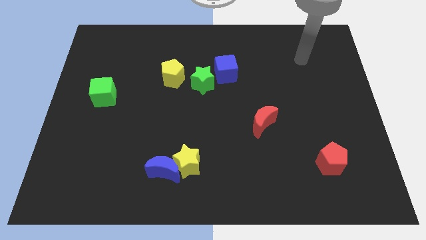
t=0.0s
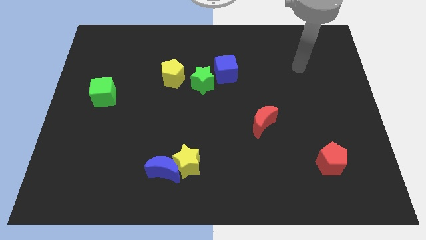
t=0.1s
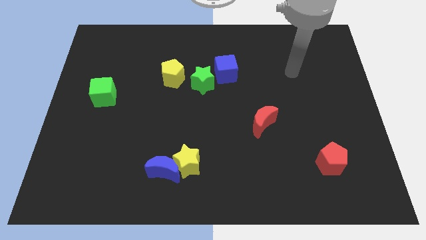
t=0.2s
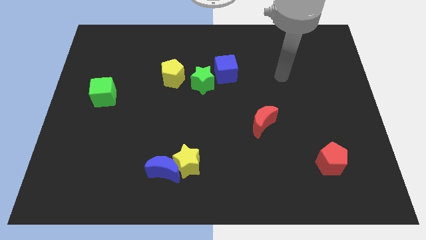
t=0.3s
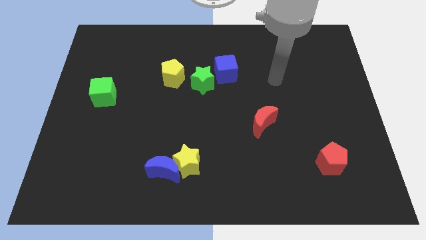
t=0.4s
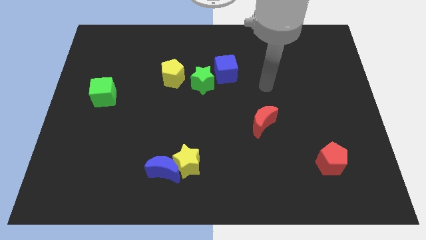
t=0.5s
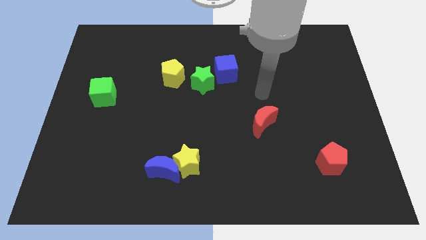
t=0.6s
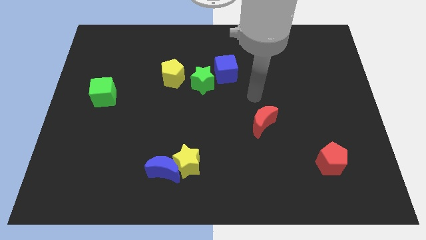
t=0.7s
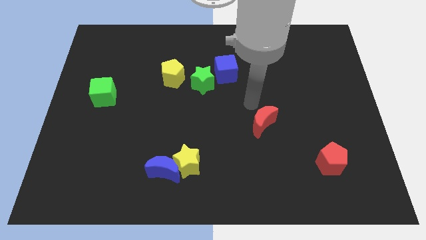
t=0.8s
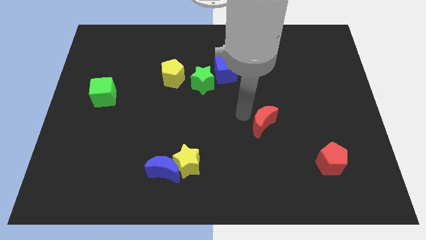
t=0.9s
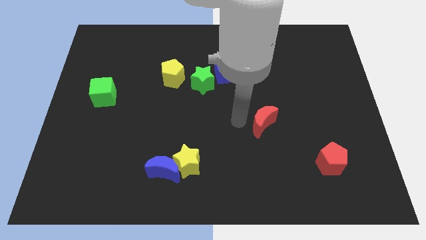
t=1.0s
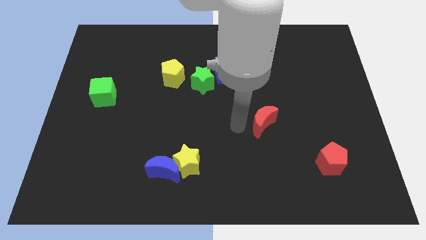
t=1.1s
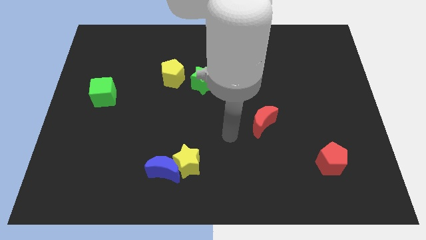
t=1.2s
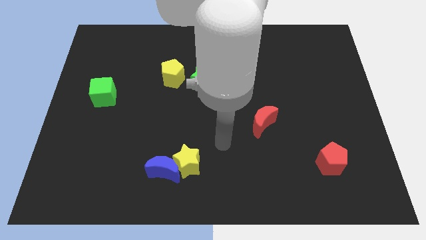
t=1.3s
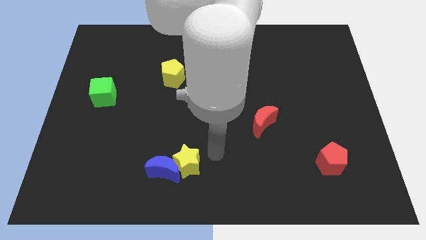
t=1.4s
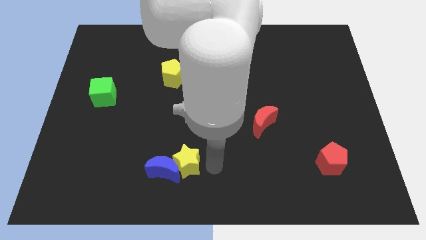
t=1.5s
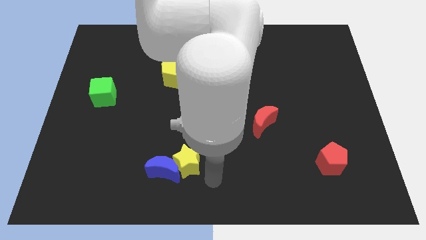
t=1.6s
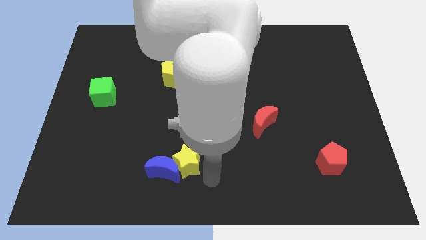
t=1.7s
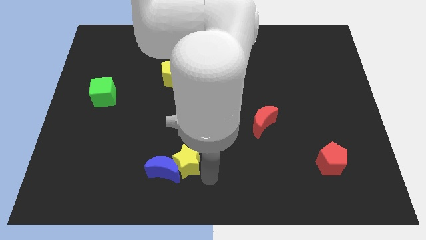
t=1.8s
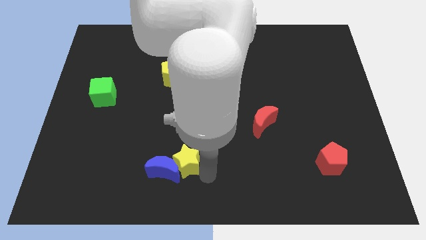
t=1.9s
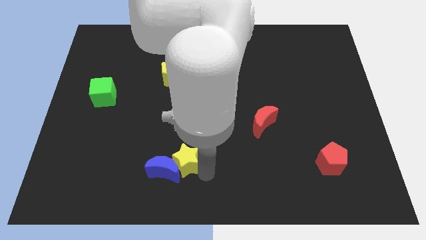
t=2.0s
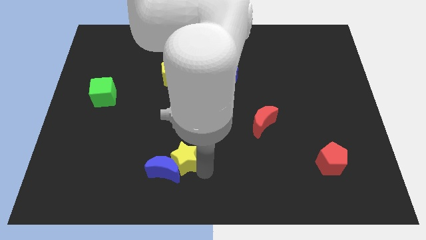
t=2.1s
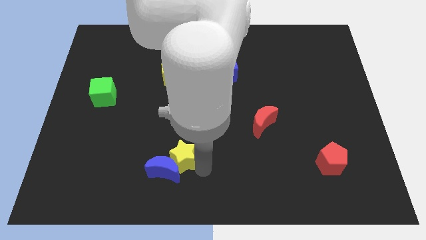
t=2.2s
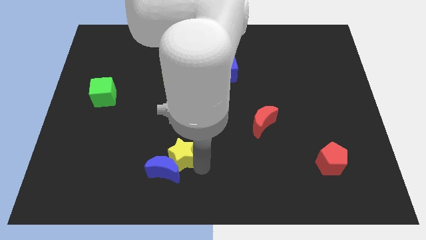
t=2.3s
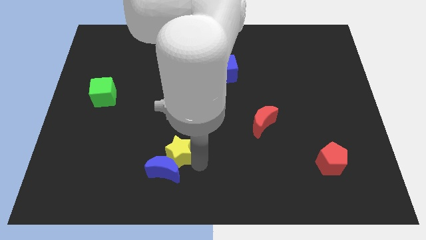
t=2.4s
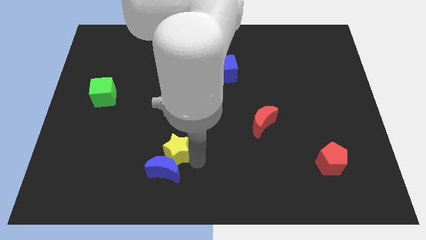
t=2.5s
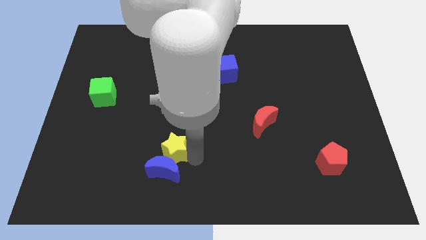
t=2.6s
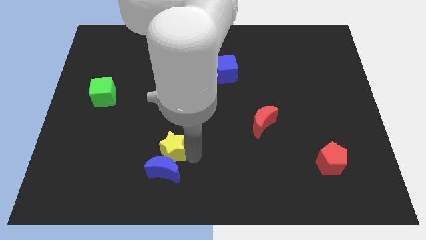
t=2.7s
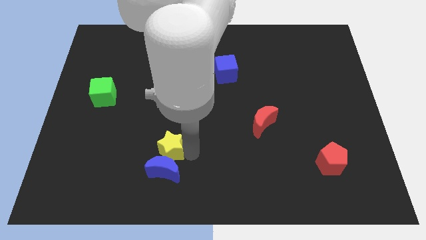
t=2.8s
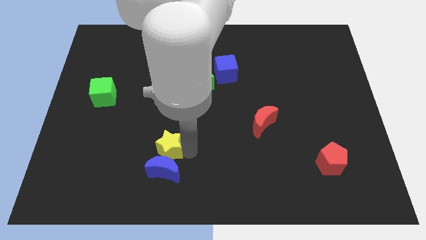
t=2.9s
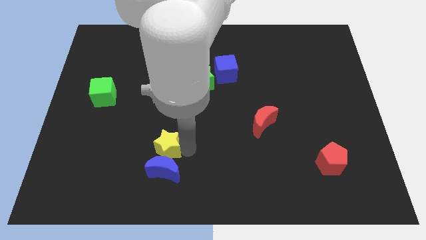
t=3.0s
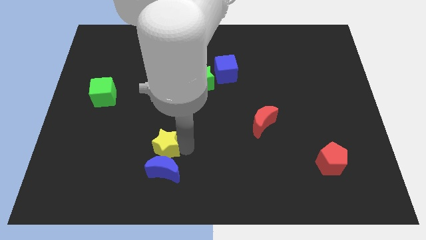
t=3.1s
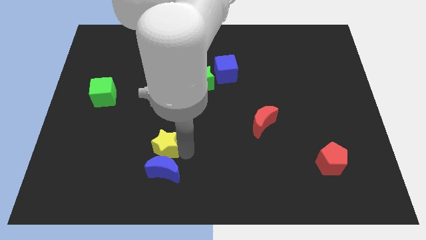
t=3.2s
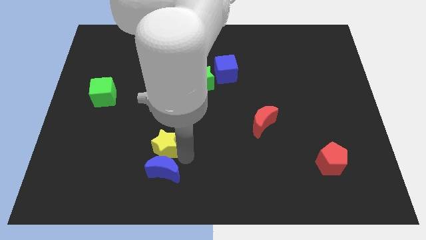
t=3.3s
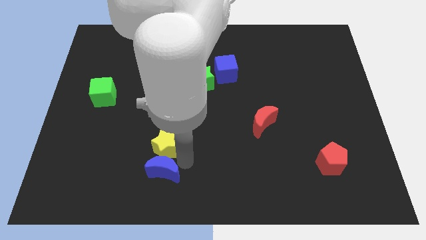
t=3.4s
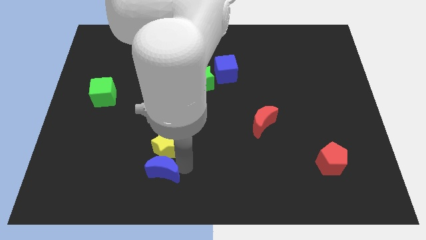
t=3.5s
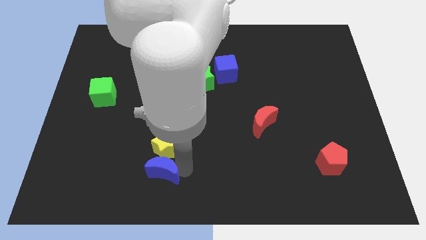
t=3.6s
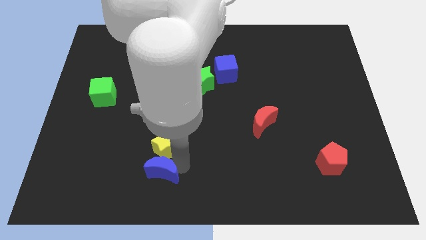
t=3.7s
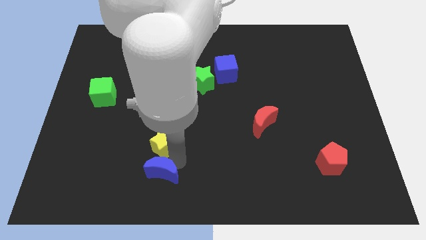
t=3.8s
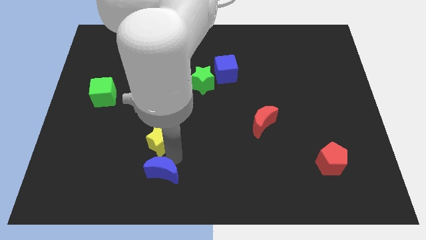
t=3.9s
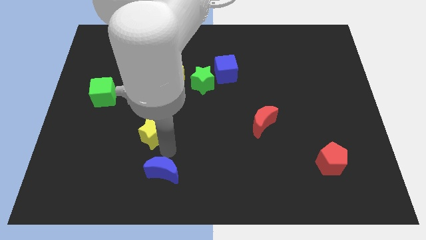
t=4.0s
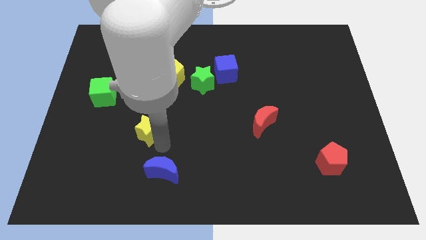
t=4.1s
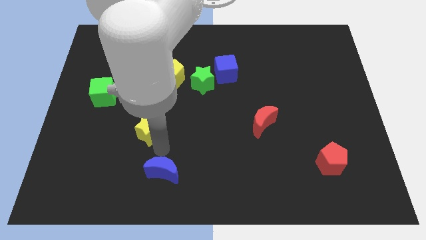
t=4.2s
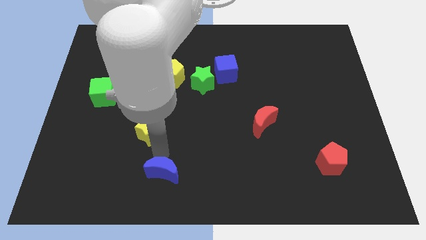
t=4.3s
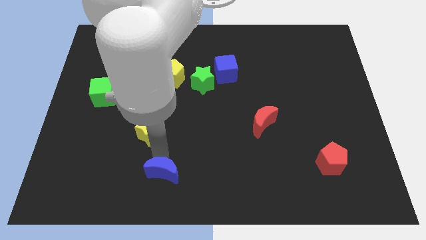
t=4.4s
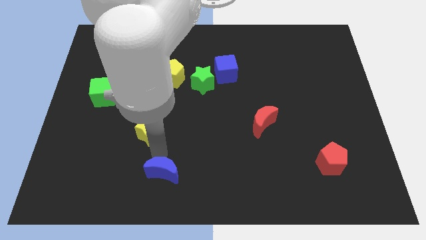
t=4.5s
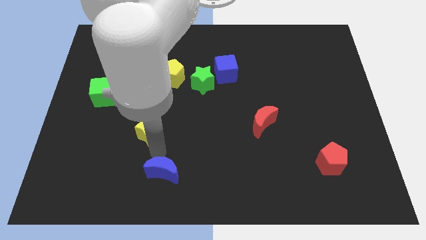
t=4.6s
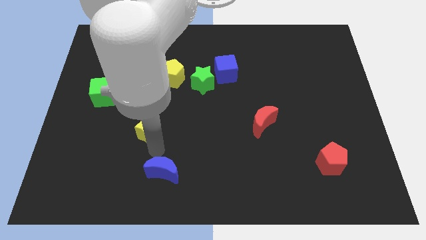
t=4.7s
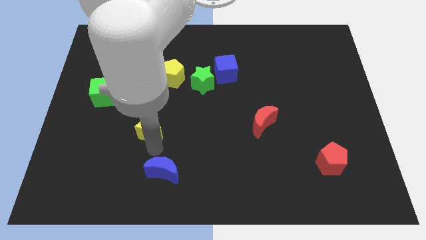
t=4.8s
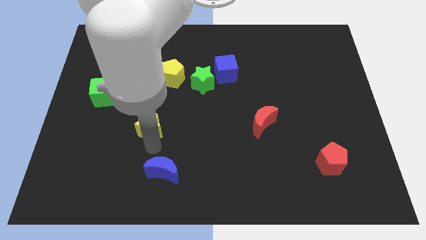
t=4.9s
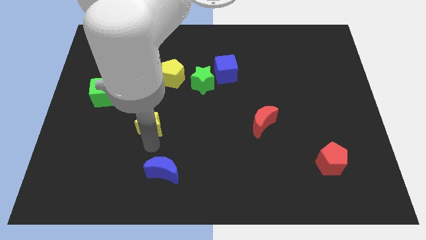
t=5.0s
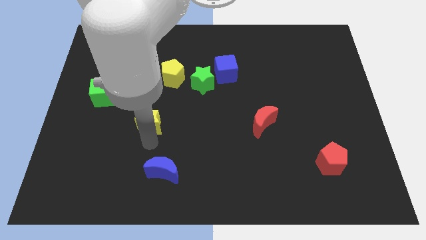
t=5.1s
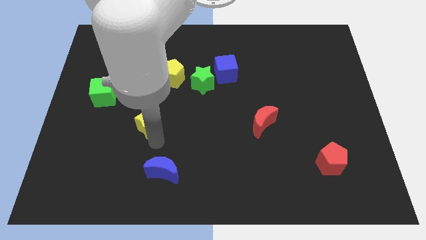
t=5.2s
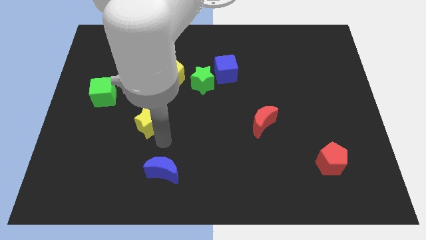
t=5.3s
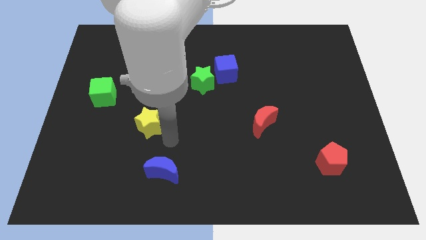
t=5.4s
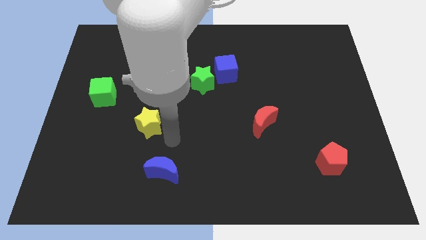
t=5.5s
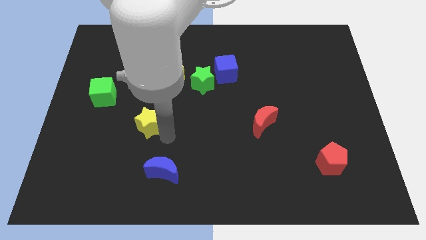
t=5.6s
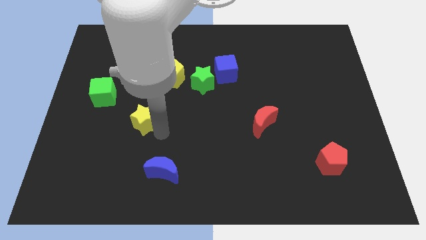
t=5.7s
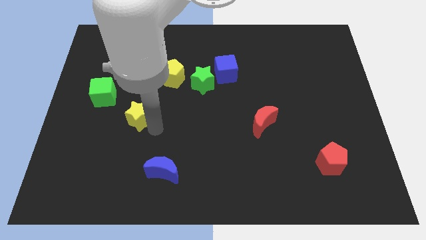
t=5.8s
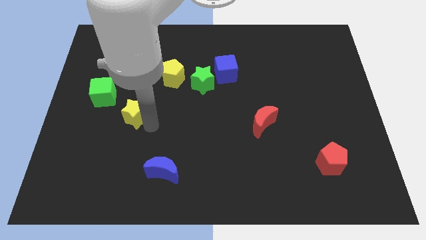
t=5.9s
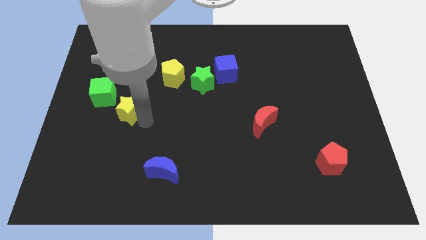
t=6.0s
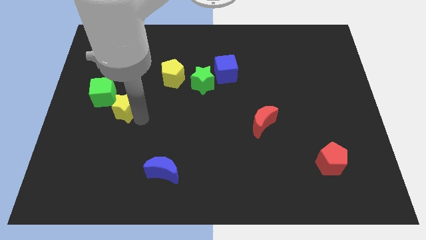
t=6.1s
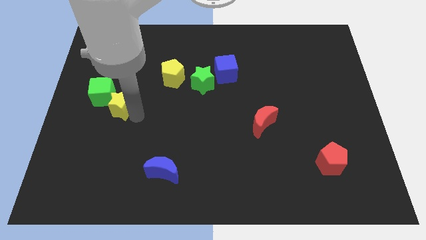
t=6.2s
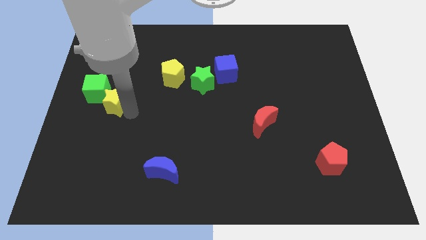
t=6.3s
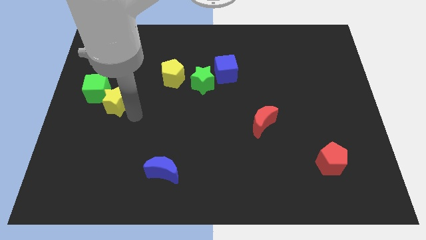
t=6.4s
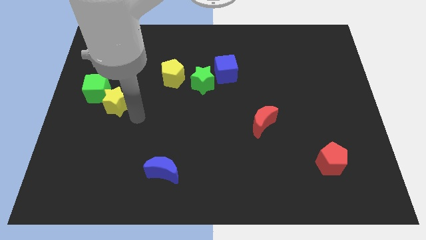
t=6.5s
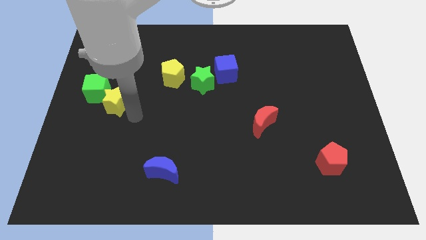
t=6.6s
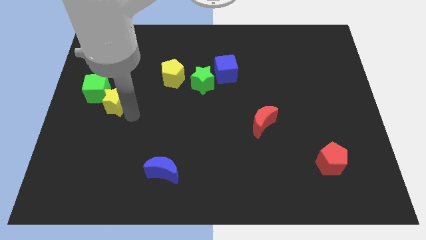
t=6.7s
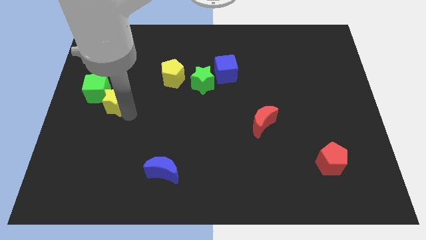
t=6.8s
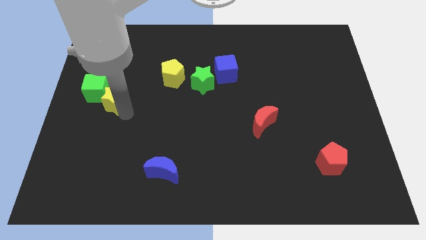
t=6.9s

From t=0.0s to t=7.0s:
move the yellow star to the green cube

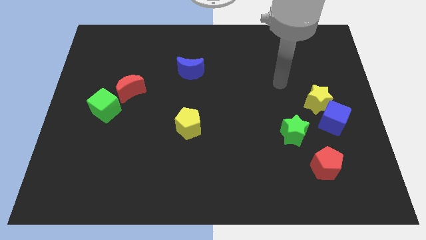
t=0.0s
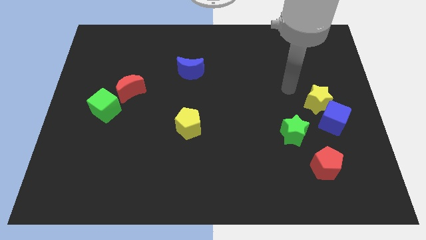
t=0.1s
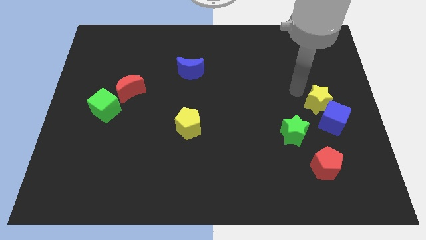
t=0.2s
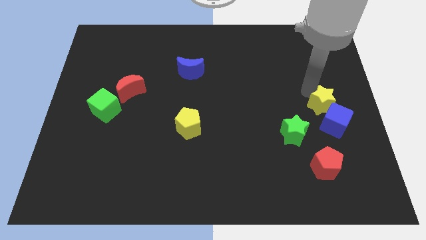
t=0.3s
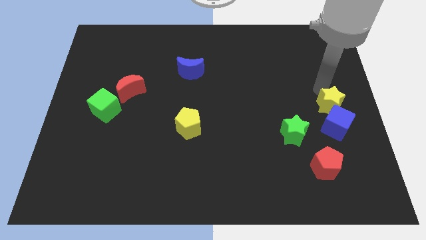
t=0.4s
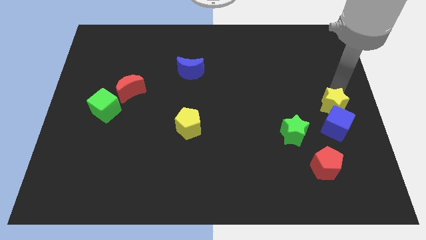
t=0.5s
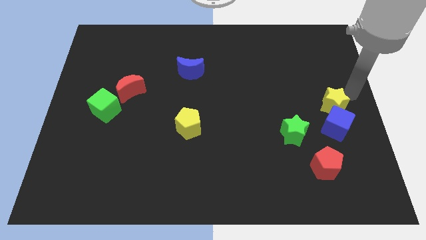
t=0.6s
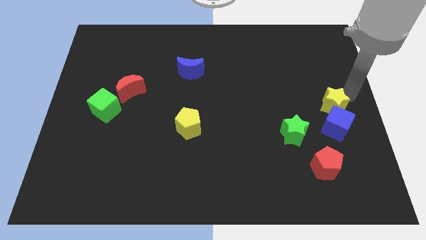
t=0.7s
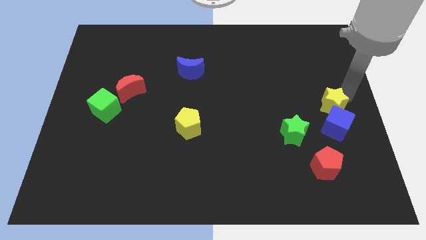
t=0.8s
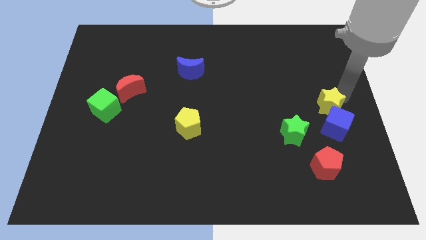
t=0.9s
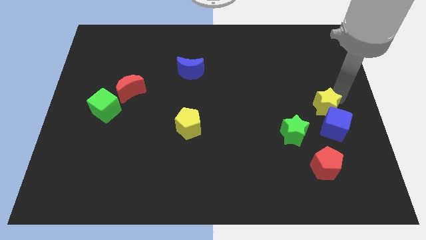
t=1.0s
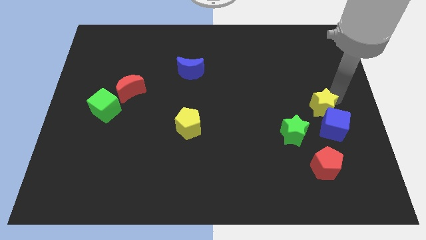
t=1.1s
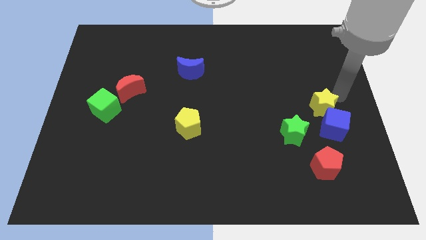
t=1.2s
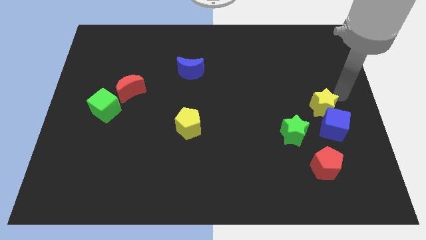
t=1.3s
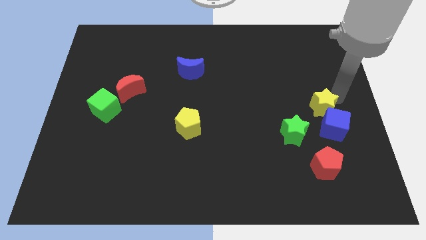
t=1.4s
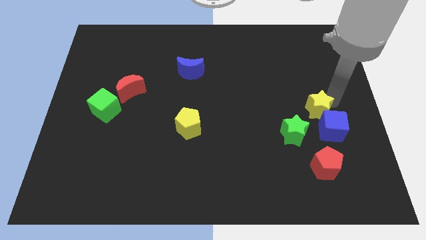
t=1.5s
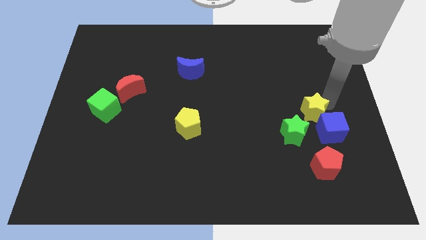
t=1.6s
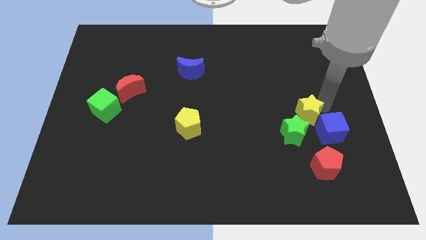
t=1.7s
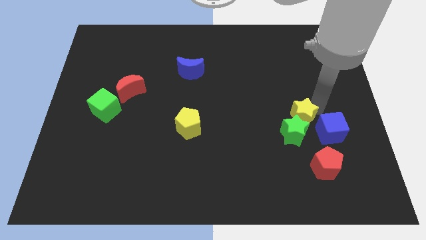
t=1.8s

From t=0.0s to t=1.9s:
put the yellow star close to the green star
